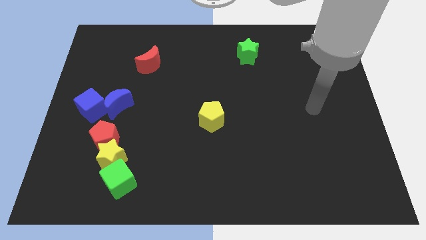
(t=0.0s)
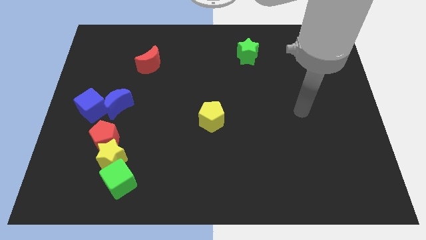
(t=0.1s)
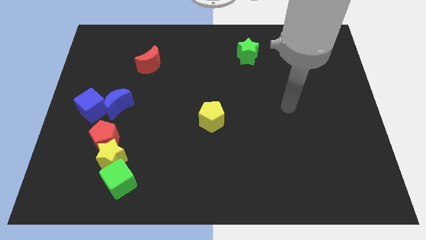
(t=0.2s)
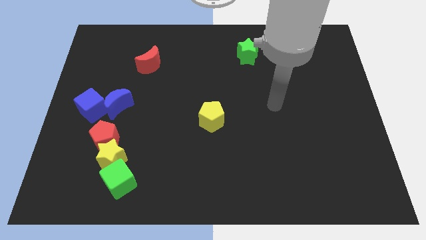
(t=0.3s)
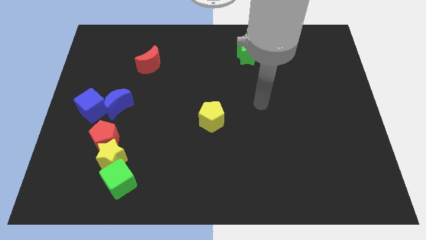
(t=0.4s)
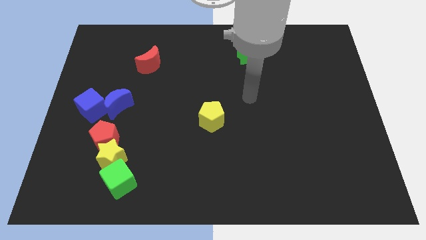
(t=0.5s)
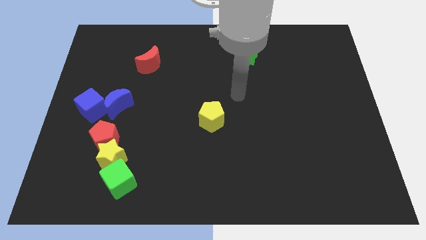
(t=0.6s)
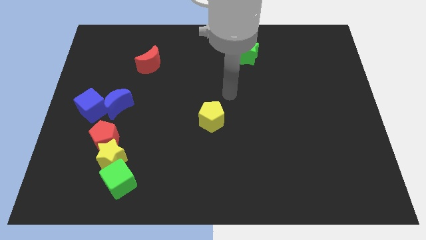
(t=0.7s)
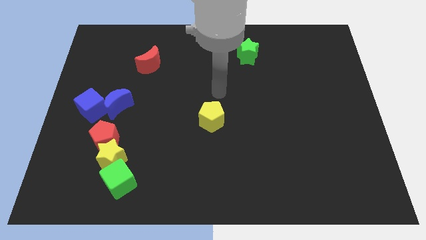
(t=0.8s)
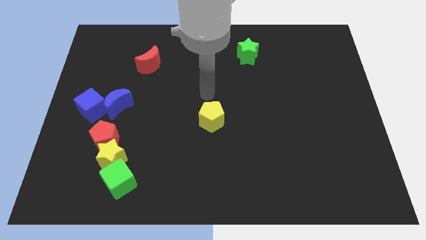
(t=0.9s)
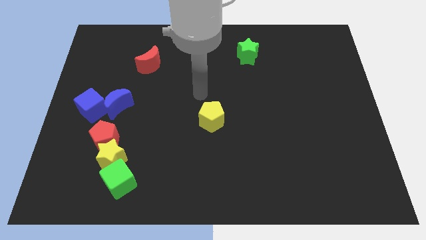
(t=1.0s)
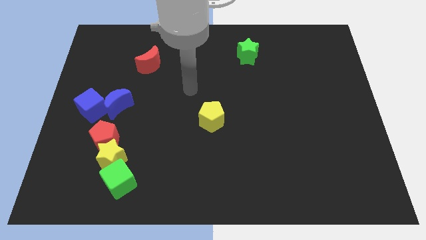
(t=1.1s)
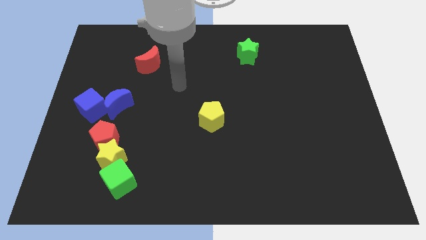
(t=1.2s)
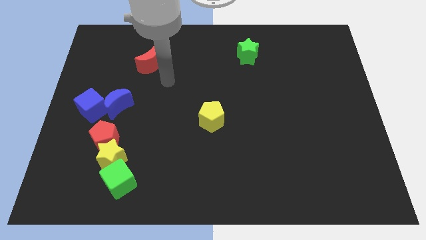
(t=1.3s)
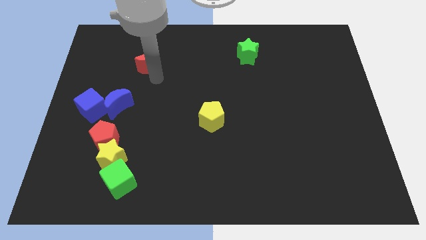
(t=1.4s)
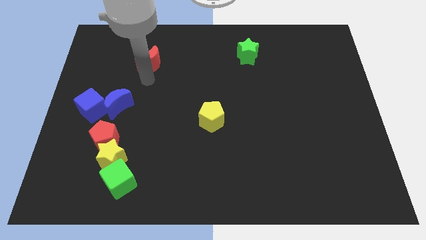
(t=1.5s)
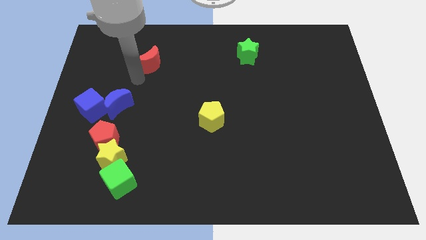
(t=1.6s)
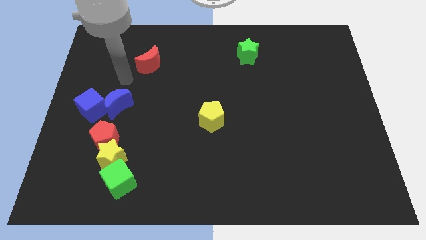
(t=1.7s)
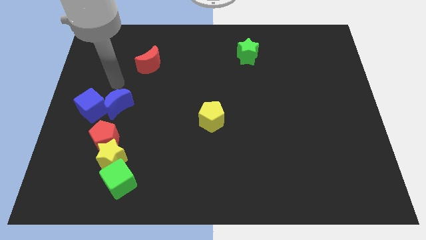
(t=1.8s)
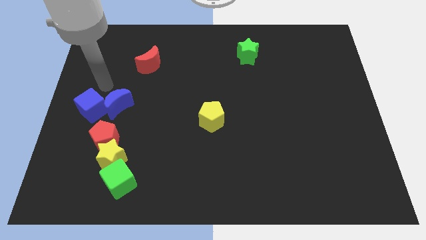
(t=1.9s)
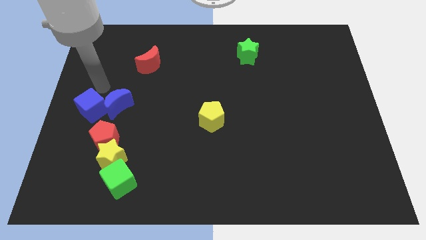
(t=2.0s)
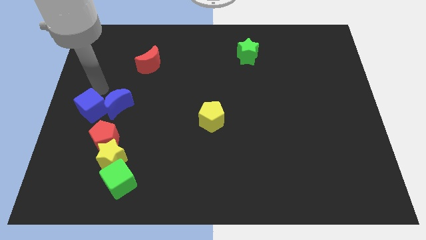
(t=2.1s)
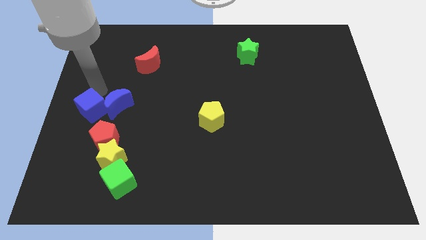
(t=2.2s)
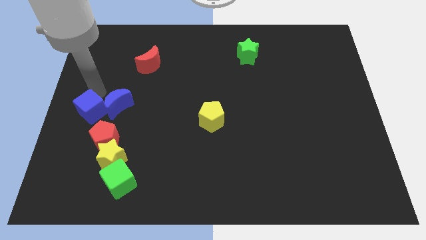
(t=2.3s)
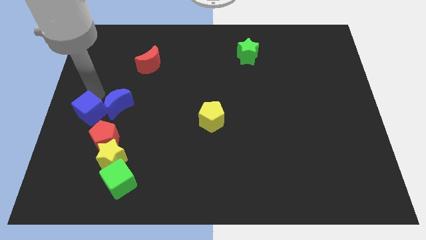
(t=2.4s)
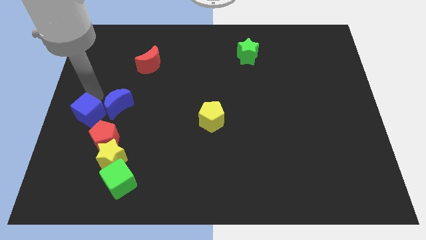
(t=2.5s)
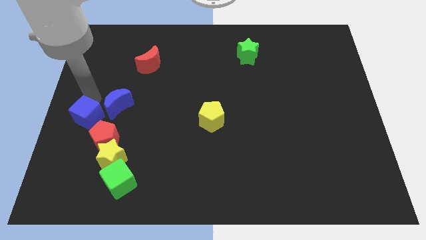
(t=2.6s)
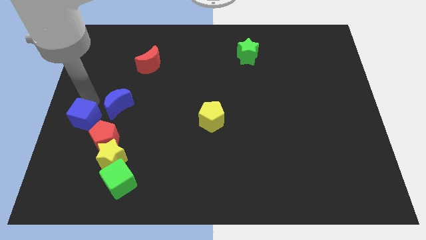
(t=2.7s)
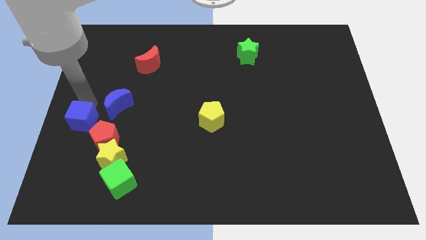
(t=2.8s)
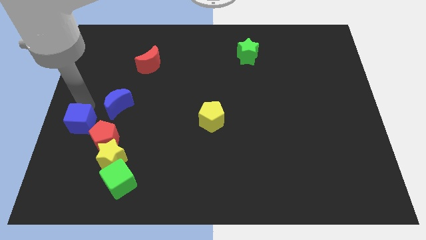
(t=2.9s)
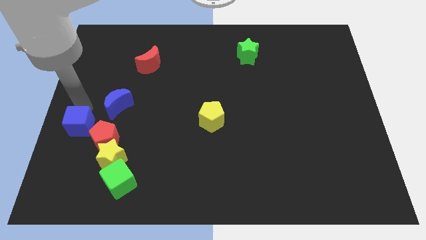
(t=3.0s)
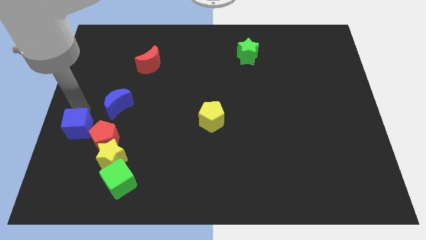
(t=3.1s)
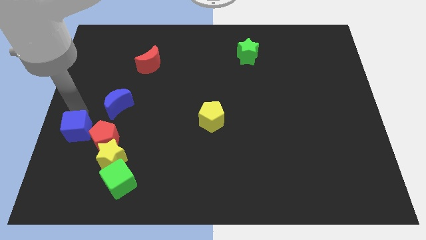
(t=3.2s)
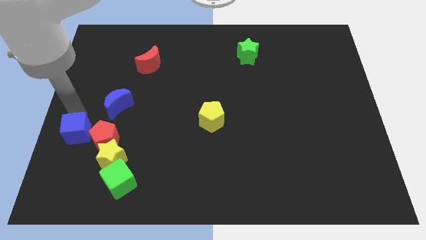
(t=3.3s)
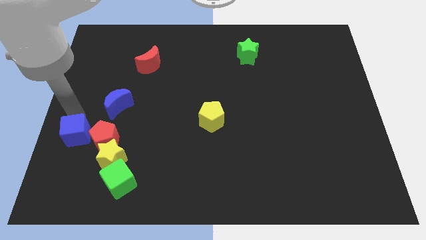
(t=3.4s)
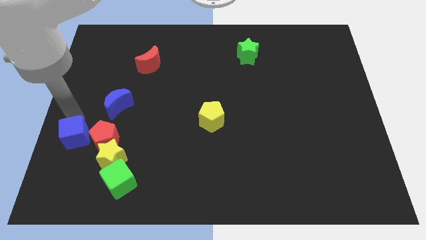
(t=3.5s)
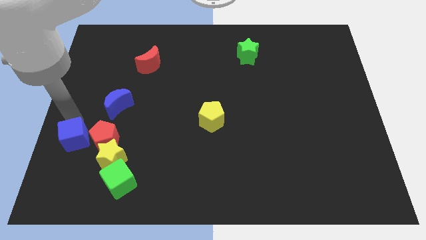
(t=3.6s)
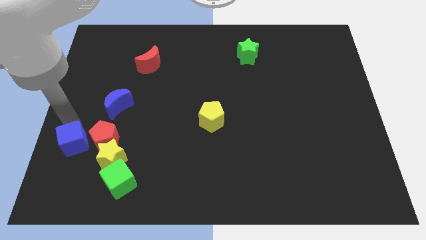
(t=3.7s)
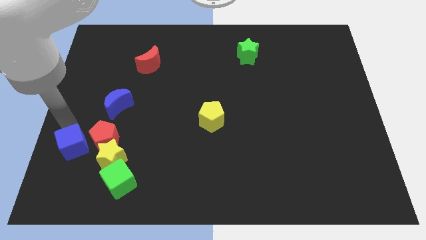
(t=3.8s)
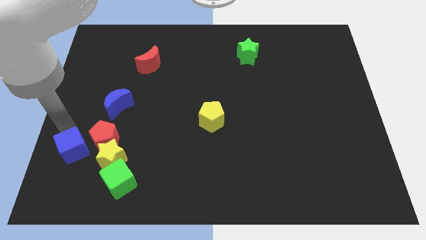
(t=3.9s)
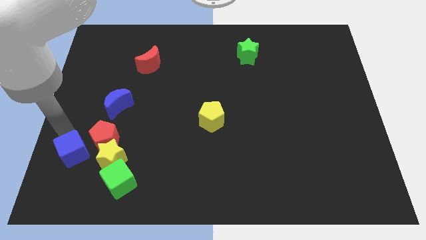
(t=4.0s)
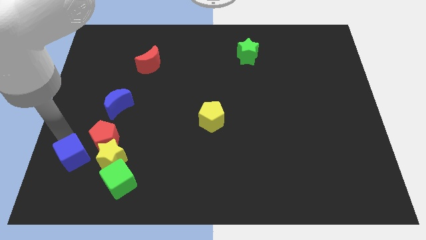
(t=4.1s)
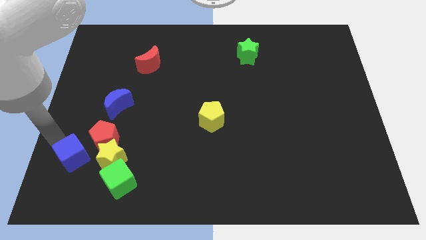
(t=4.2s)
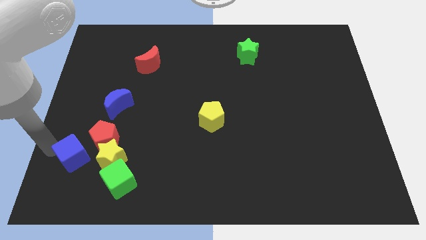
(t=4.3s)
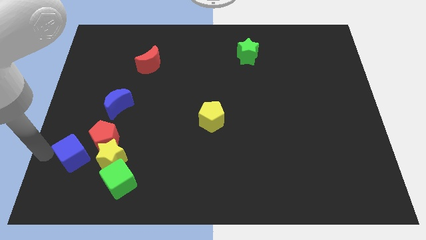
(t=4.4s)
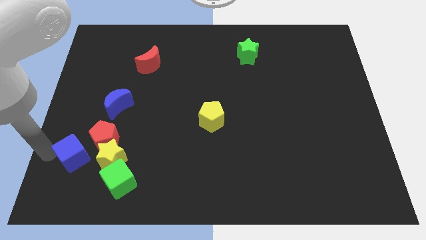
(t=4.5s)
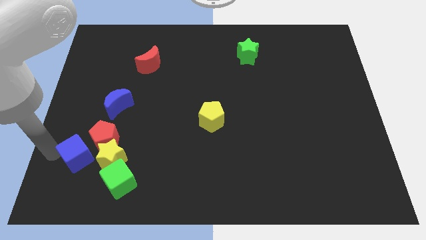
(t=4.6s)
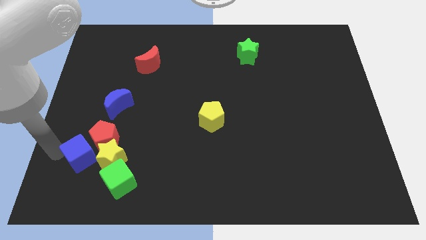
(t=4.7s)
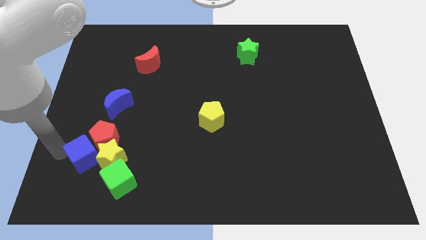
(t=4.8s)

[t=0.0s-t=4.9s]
push the blue cube to the yellow star

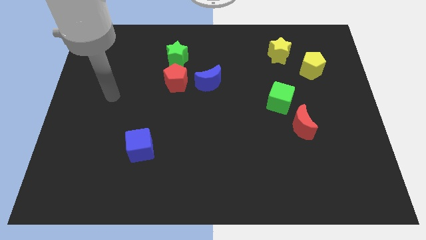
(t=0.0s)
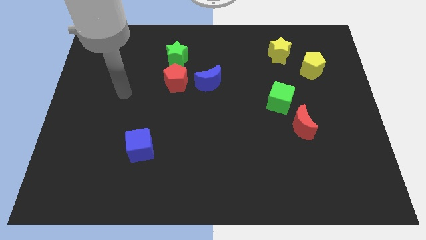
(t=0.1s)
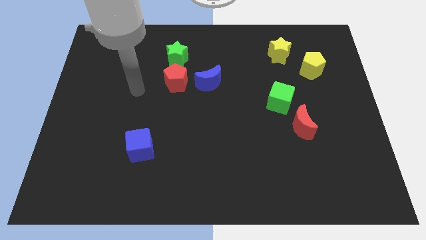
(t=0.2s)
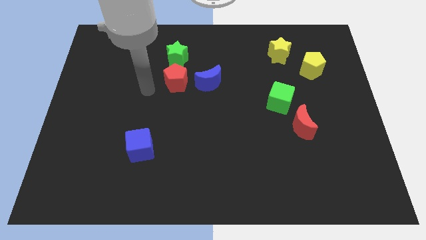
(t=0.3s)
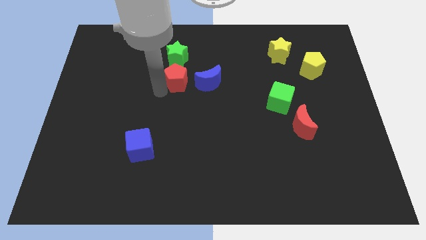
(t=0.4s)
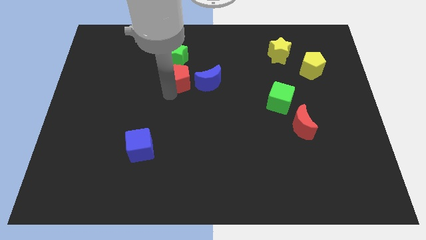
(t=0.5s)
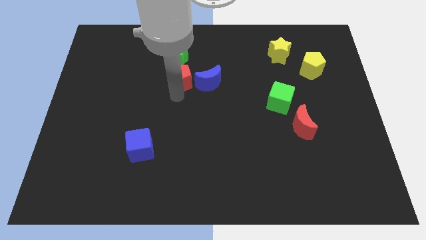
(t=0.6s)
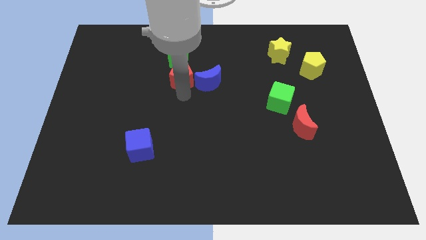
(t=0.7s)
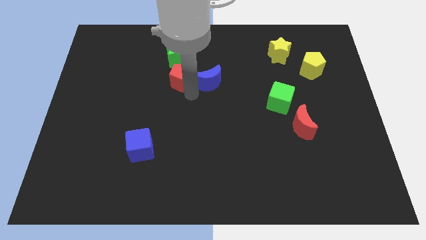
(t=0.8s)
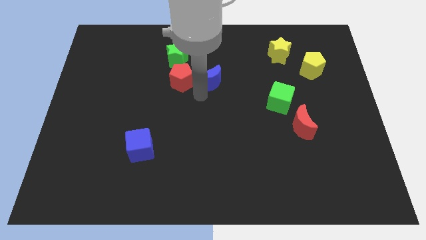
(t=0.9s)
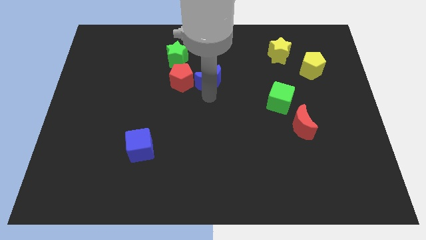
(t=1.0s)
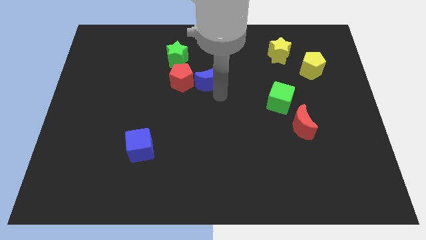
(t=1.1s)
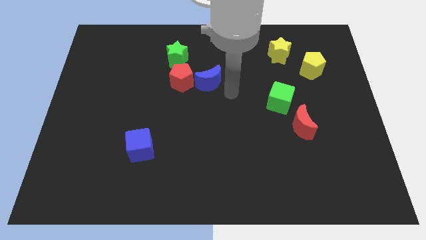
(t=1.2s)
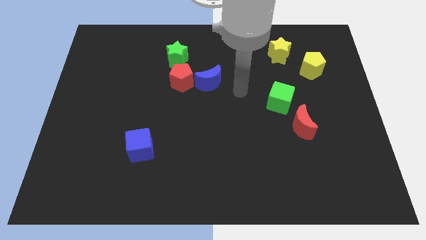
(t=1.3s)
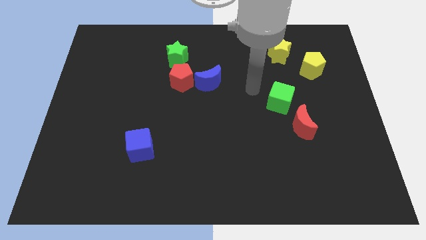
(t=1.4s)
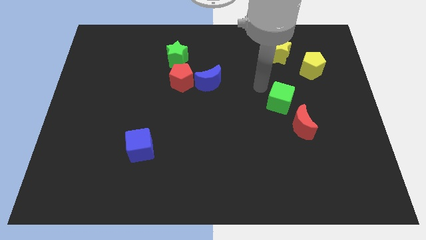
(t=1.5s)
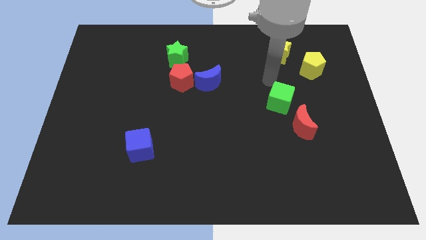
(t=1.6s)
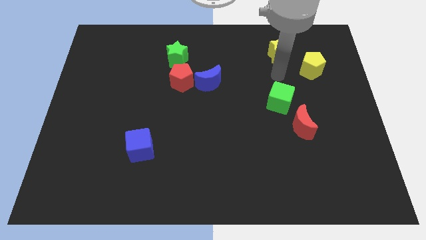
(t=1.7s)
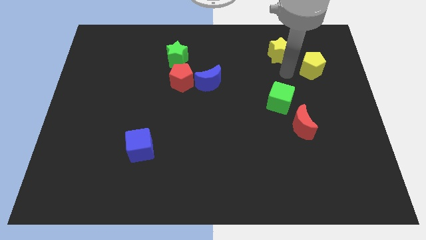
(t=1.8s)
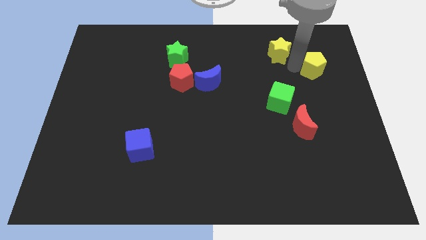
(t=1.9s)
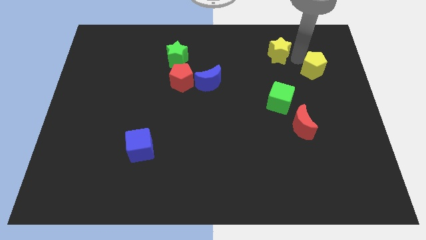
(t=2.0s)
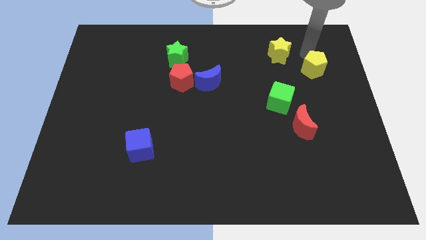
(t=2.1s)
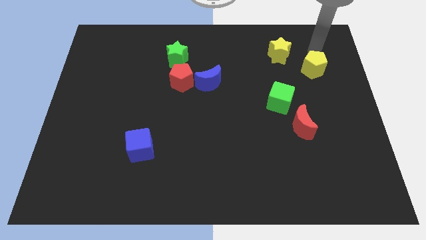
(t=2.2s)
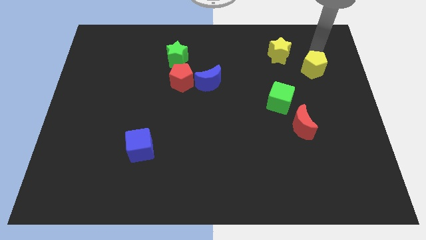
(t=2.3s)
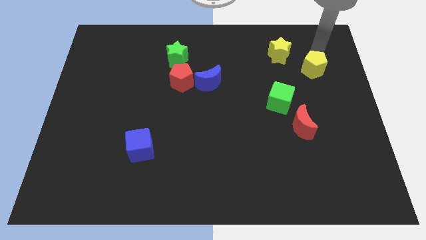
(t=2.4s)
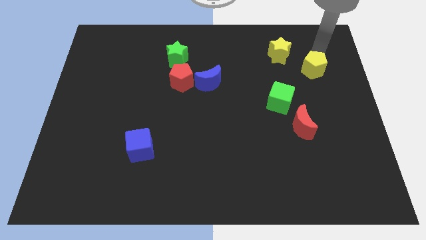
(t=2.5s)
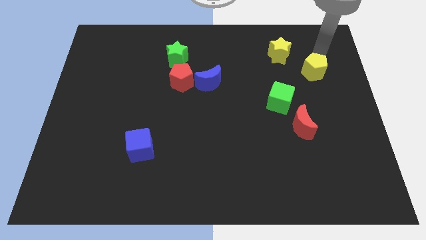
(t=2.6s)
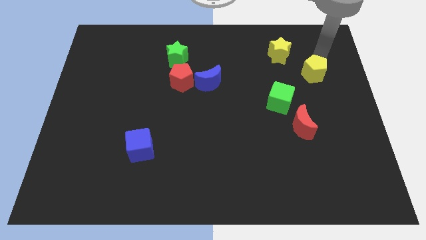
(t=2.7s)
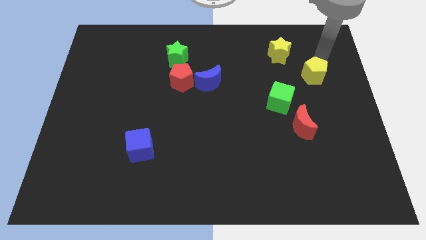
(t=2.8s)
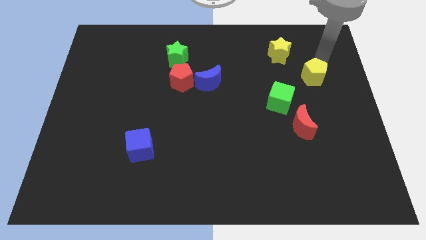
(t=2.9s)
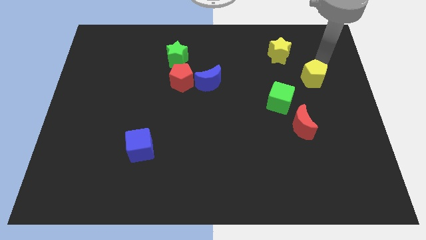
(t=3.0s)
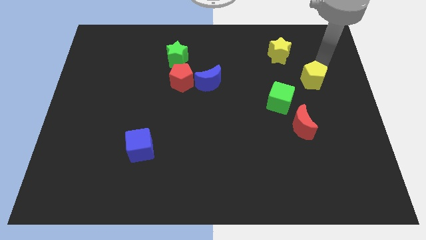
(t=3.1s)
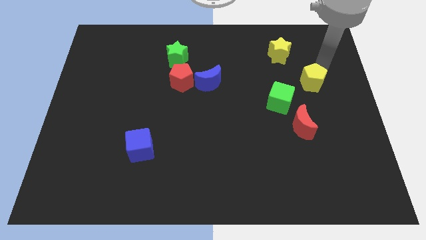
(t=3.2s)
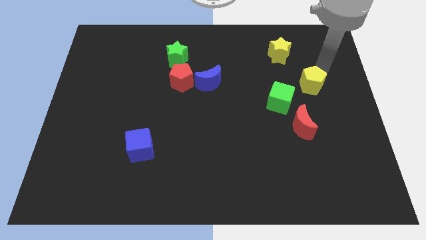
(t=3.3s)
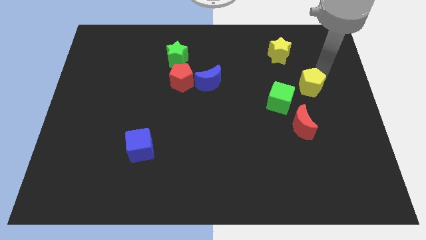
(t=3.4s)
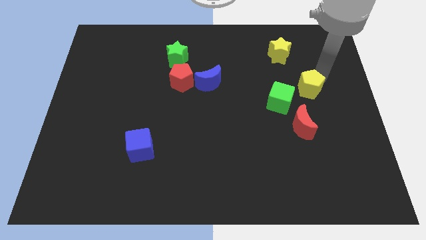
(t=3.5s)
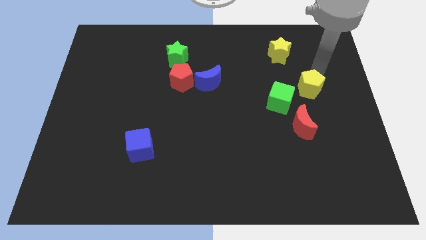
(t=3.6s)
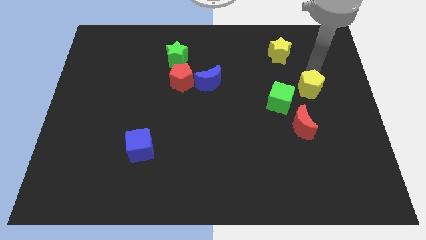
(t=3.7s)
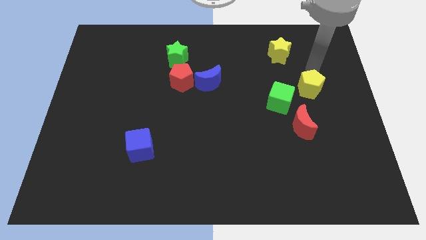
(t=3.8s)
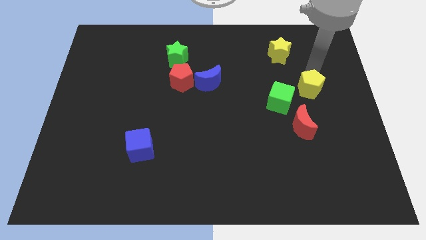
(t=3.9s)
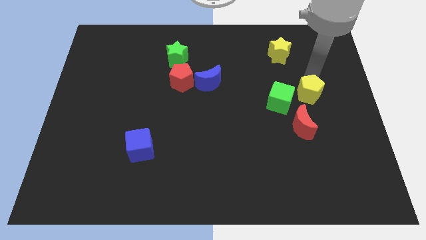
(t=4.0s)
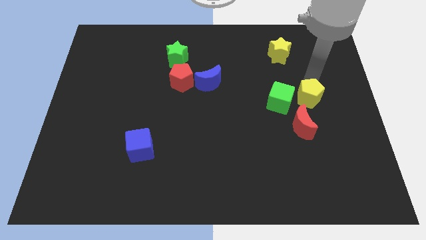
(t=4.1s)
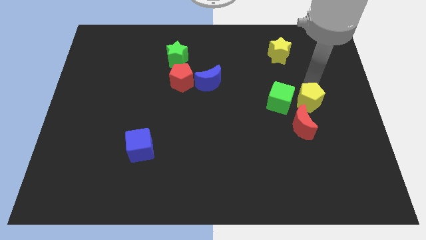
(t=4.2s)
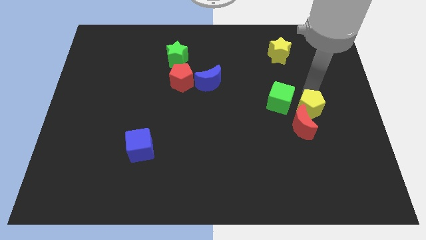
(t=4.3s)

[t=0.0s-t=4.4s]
push the yellow pentagon close to the red moon
